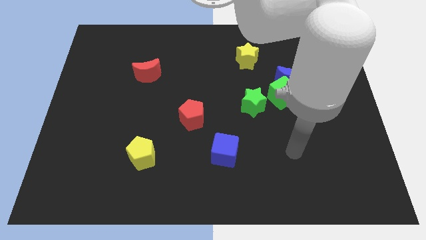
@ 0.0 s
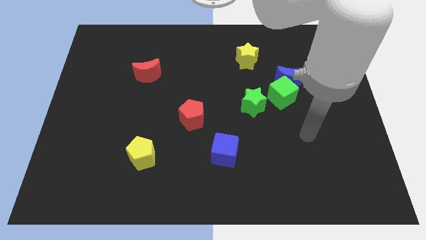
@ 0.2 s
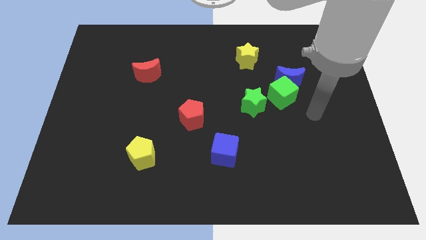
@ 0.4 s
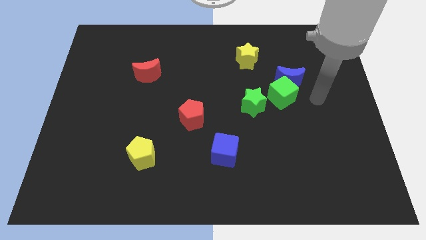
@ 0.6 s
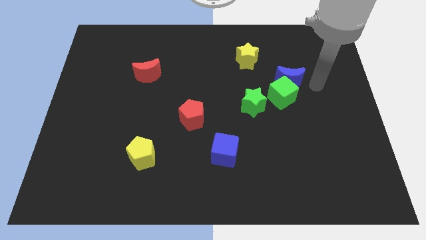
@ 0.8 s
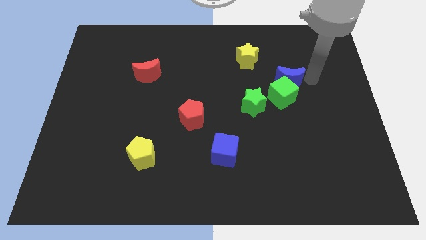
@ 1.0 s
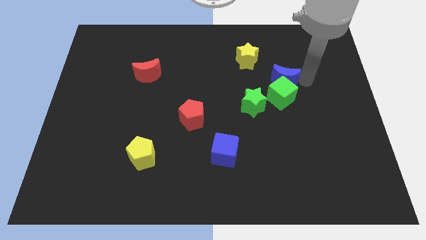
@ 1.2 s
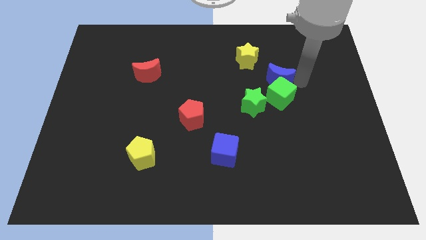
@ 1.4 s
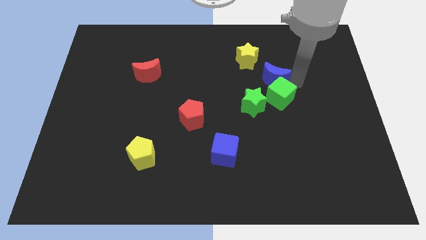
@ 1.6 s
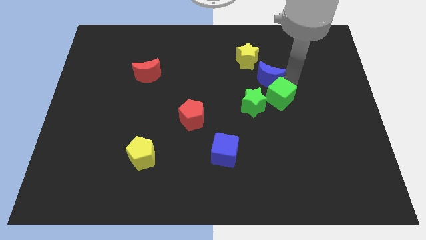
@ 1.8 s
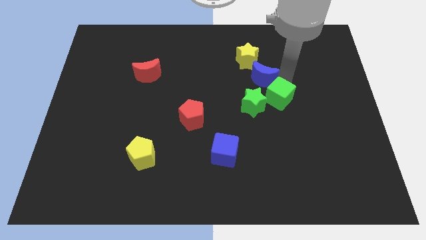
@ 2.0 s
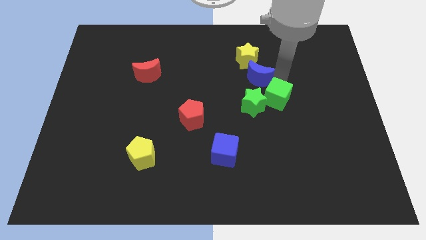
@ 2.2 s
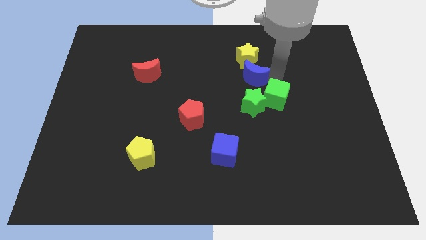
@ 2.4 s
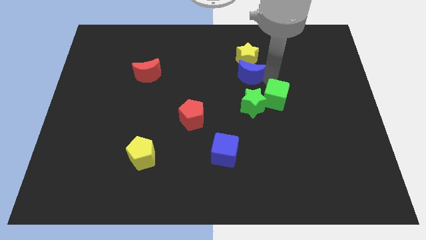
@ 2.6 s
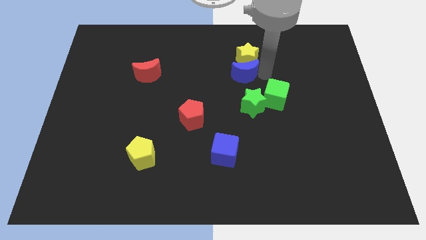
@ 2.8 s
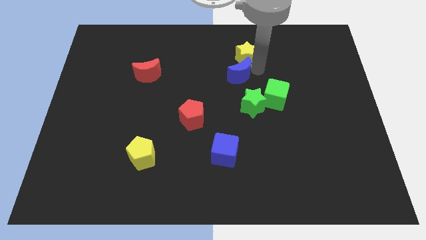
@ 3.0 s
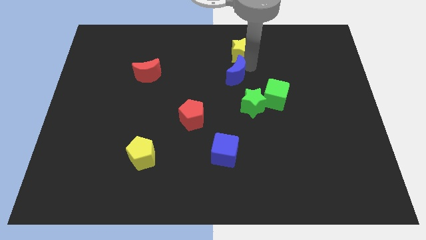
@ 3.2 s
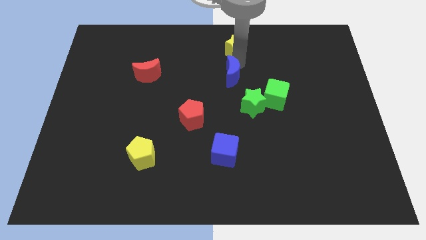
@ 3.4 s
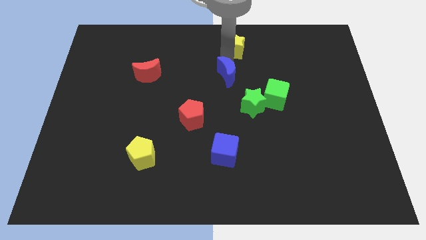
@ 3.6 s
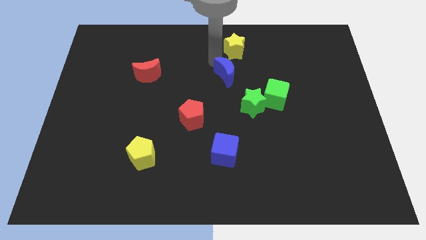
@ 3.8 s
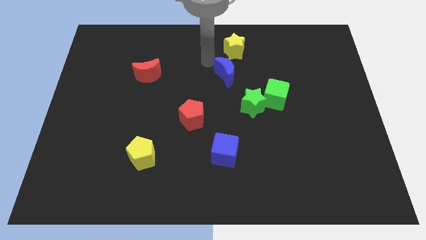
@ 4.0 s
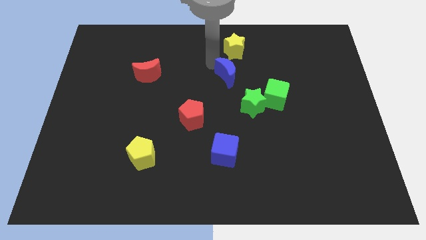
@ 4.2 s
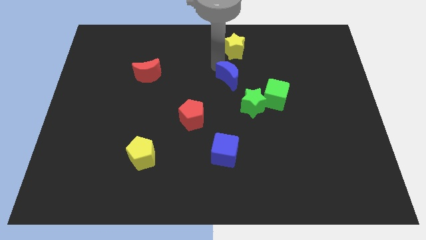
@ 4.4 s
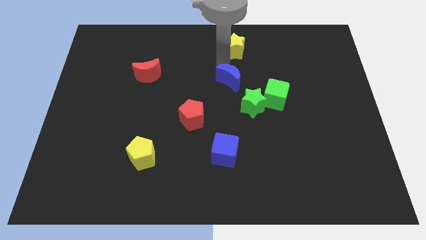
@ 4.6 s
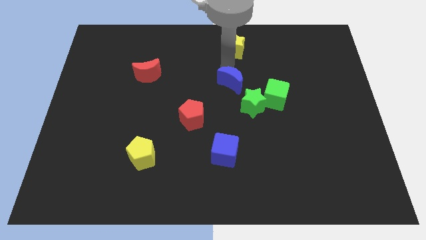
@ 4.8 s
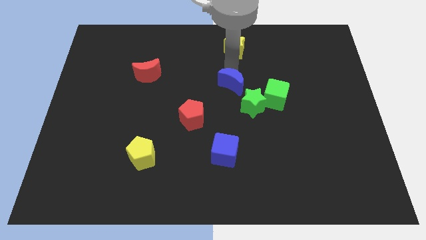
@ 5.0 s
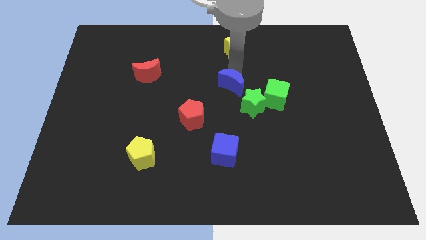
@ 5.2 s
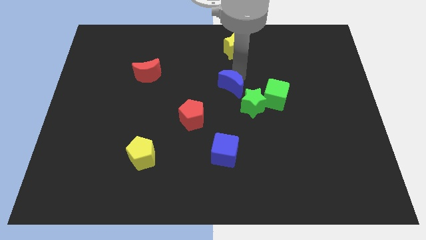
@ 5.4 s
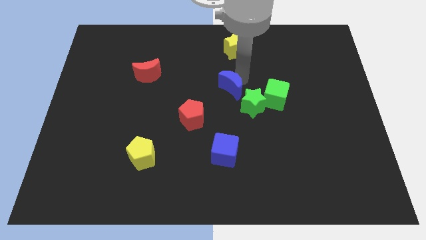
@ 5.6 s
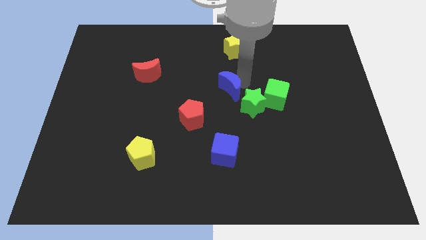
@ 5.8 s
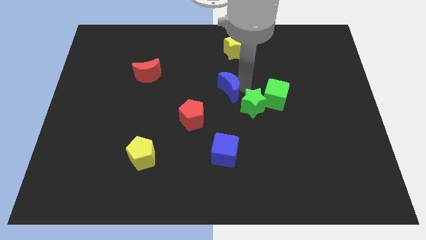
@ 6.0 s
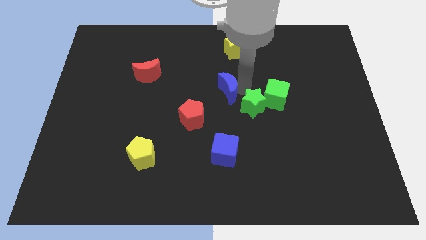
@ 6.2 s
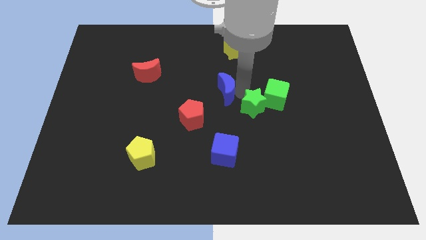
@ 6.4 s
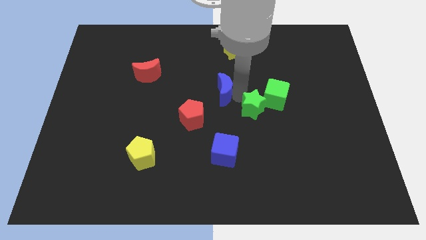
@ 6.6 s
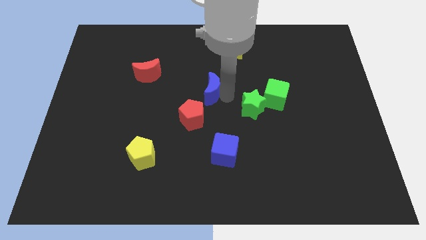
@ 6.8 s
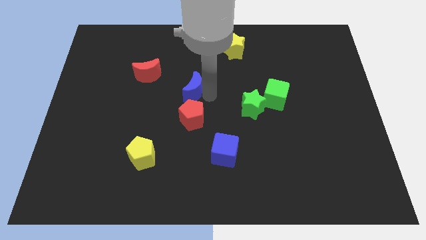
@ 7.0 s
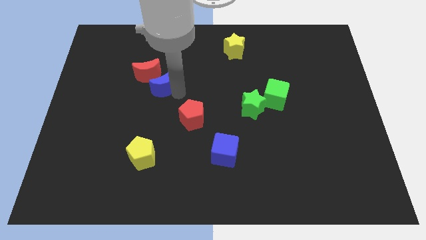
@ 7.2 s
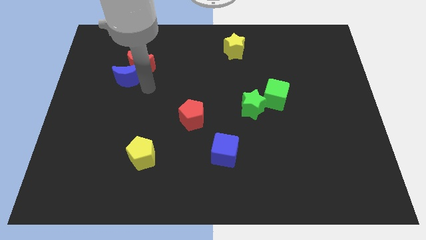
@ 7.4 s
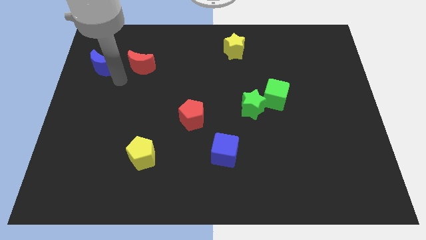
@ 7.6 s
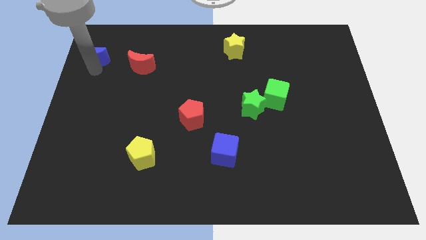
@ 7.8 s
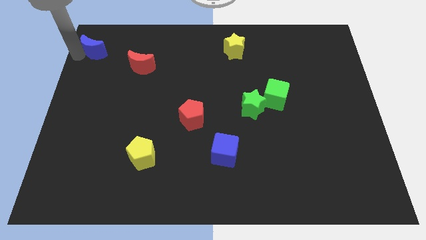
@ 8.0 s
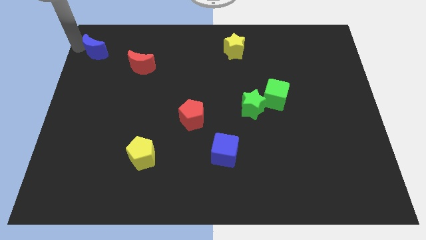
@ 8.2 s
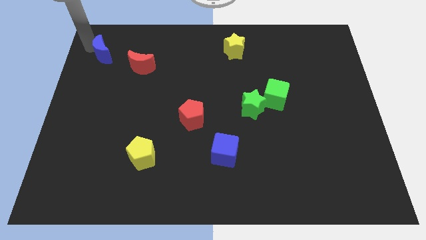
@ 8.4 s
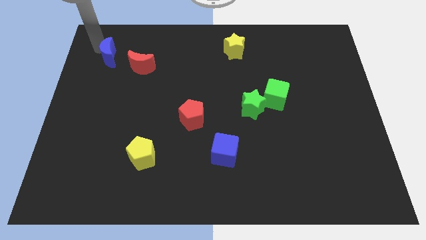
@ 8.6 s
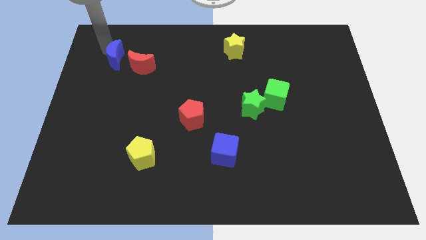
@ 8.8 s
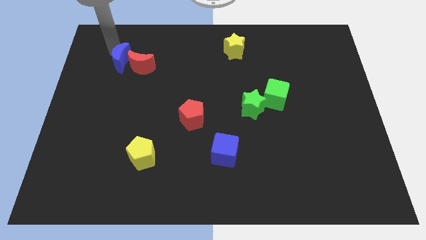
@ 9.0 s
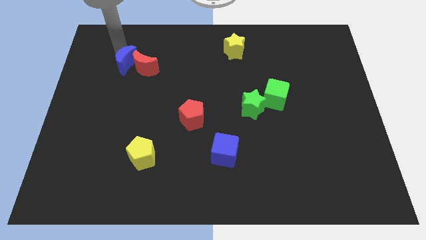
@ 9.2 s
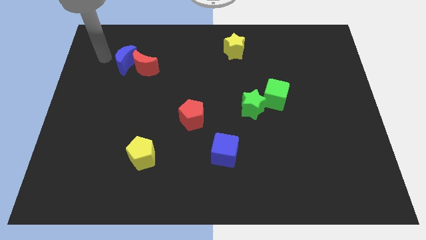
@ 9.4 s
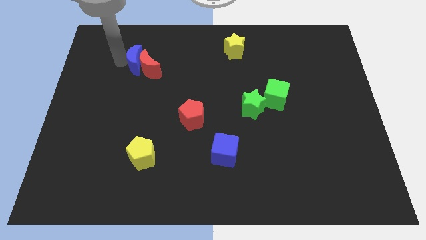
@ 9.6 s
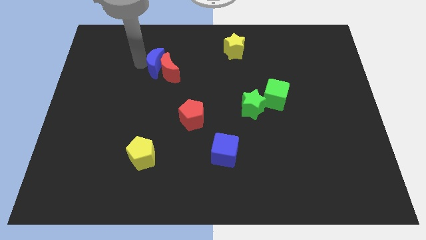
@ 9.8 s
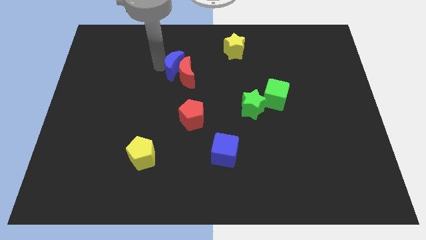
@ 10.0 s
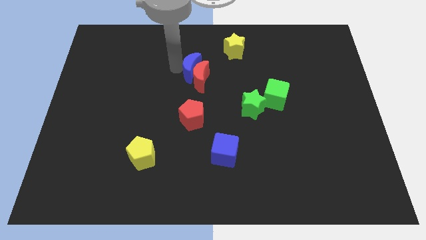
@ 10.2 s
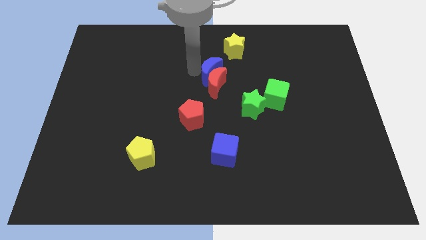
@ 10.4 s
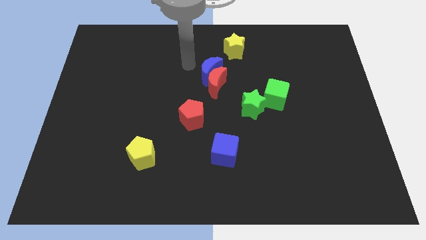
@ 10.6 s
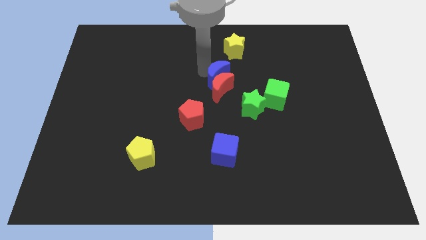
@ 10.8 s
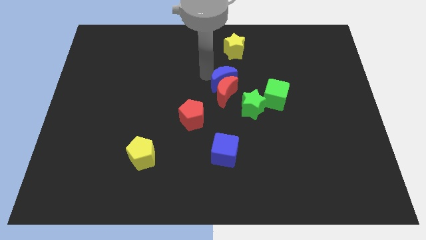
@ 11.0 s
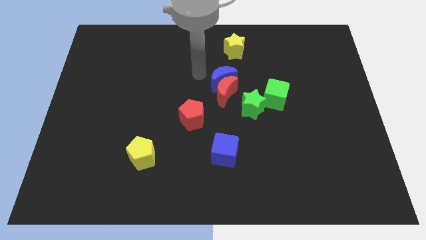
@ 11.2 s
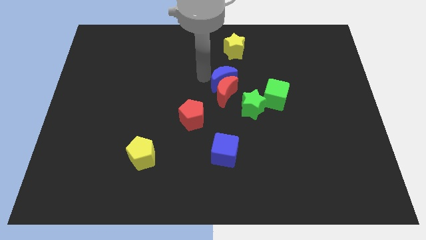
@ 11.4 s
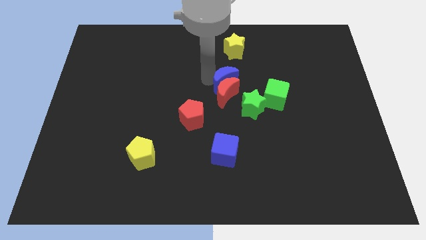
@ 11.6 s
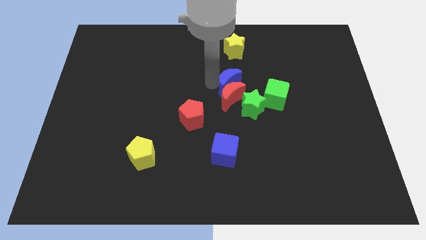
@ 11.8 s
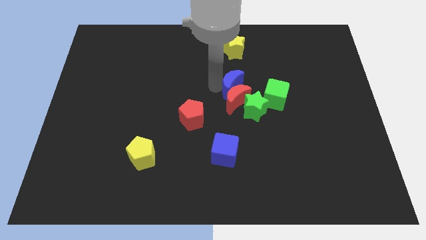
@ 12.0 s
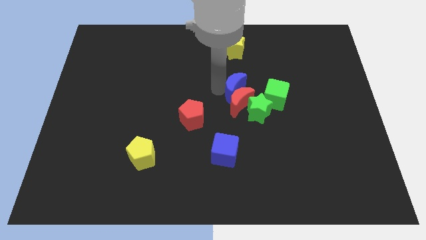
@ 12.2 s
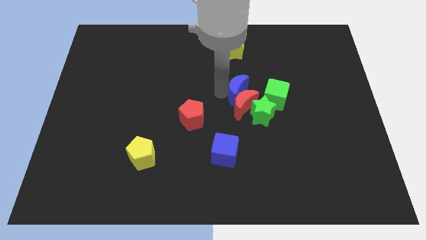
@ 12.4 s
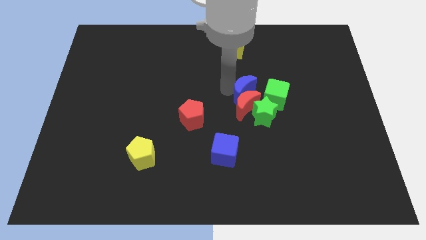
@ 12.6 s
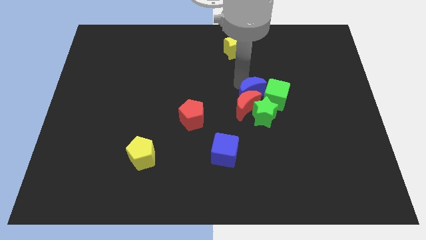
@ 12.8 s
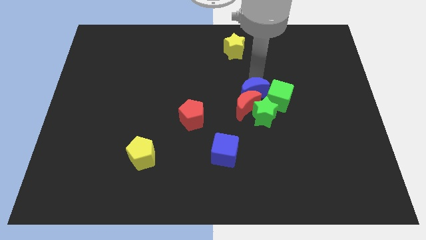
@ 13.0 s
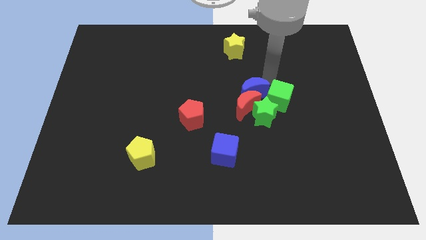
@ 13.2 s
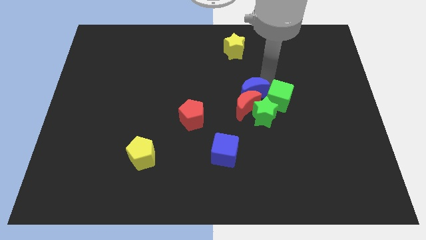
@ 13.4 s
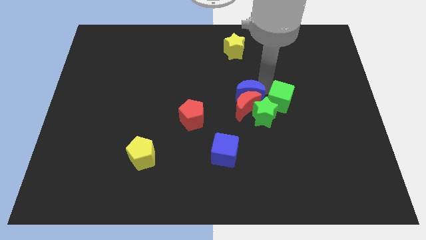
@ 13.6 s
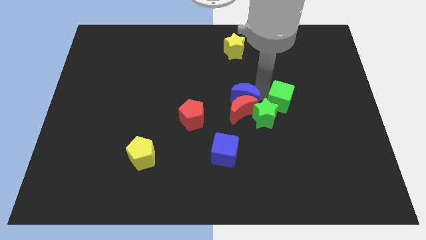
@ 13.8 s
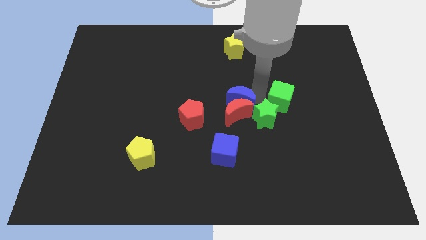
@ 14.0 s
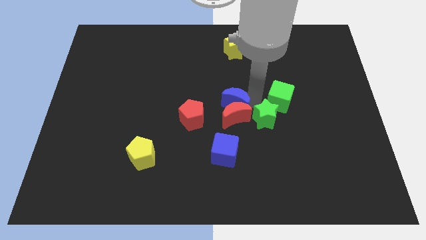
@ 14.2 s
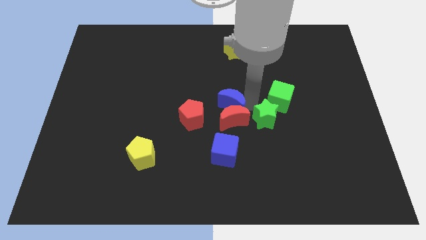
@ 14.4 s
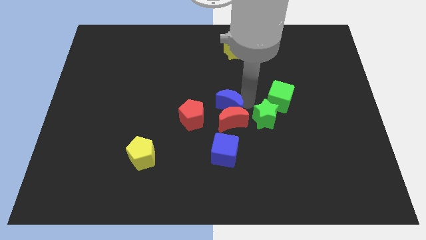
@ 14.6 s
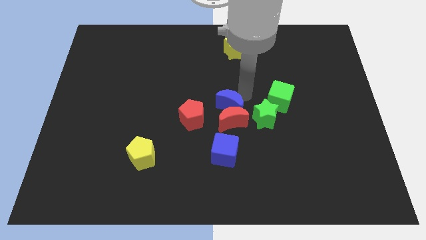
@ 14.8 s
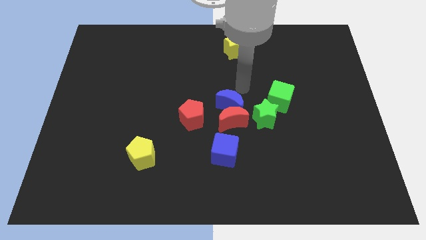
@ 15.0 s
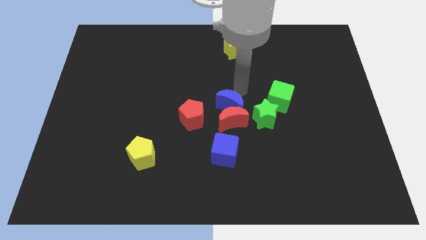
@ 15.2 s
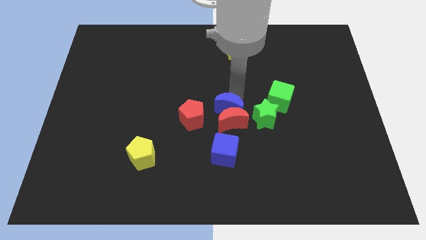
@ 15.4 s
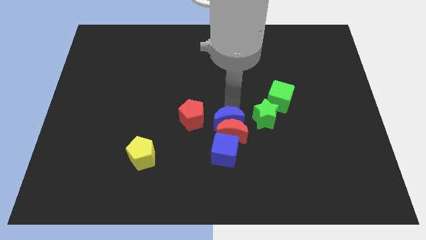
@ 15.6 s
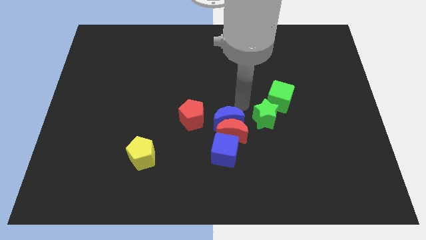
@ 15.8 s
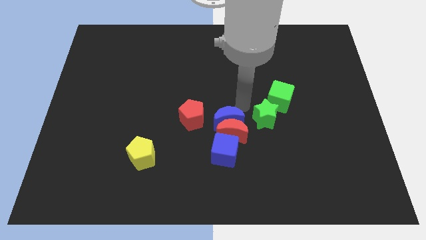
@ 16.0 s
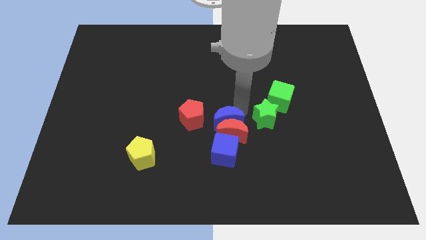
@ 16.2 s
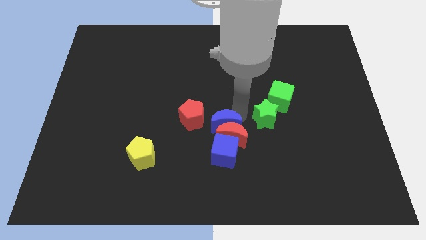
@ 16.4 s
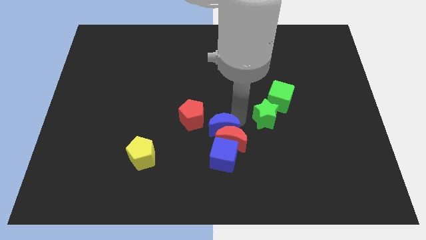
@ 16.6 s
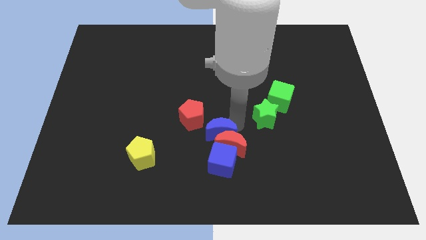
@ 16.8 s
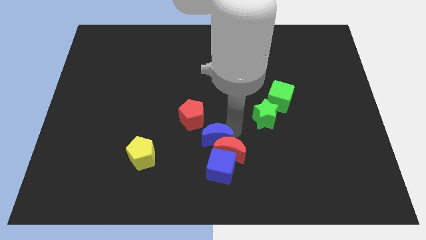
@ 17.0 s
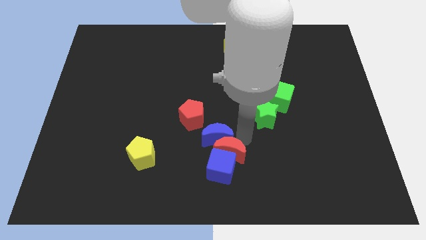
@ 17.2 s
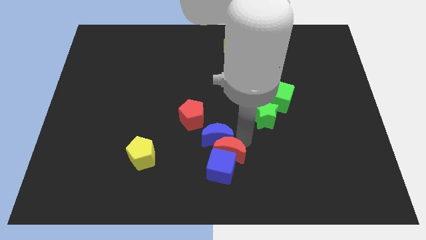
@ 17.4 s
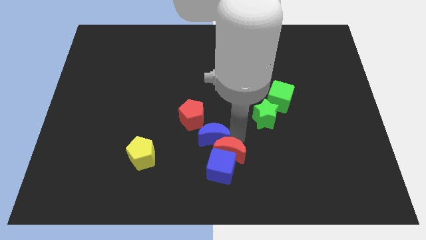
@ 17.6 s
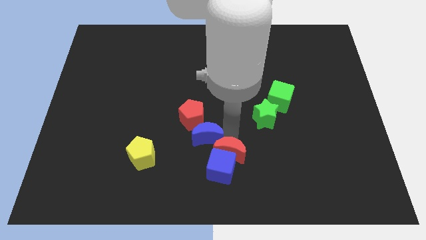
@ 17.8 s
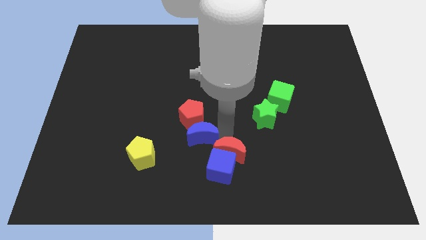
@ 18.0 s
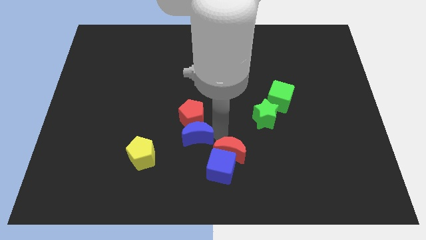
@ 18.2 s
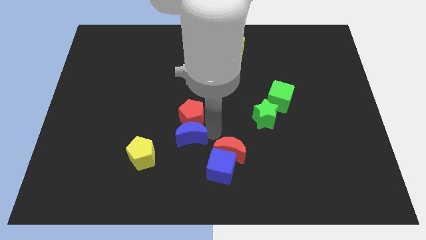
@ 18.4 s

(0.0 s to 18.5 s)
move the blue moon diagonally up and to the right of the yellow pentagon
